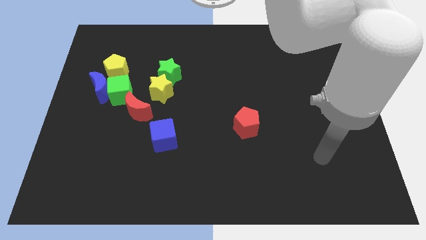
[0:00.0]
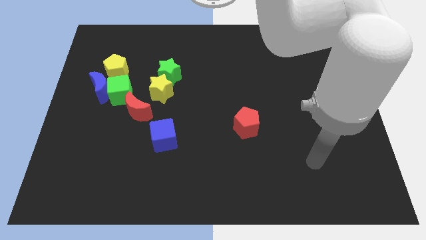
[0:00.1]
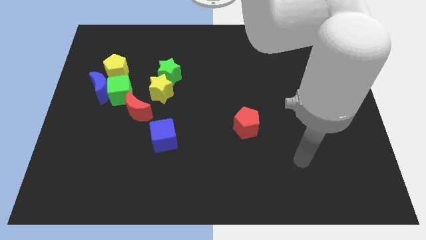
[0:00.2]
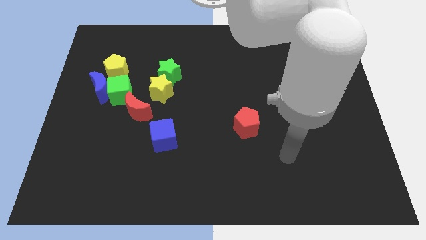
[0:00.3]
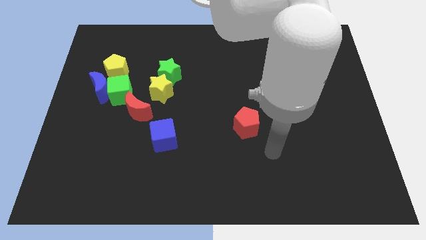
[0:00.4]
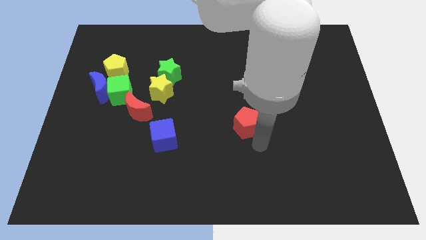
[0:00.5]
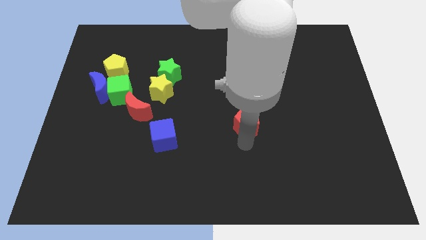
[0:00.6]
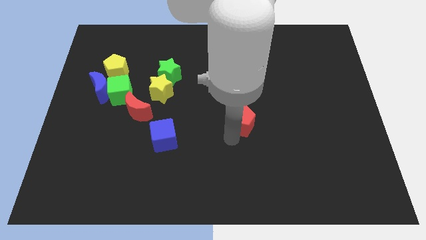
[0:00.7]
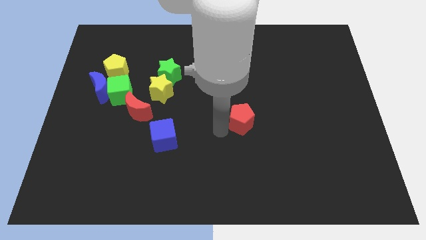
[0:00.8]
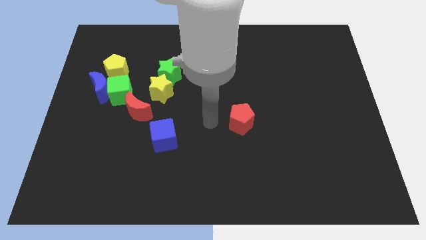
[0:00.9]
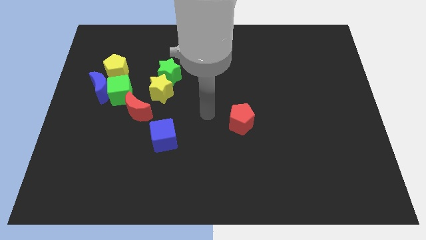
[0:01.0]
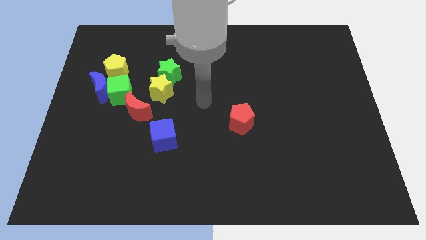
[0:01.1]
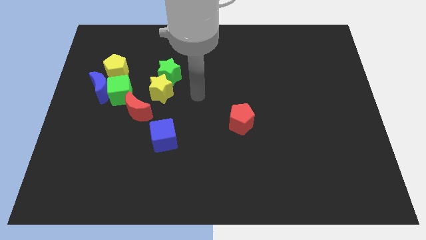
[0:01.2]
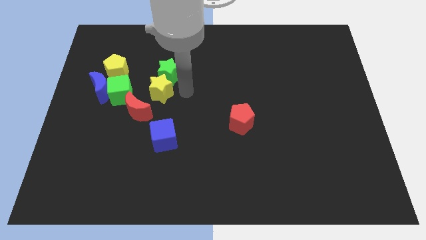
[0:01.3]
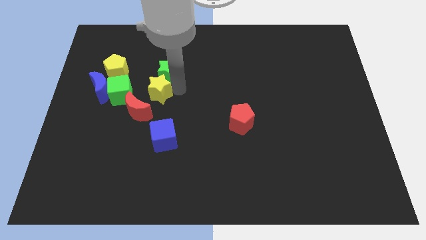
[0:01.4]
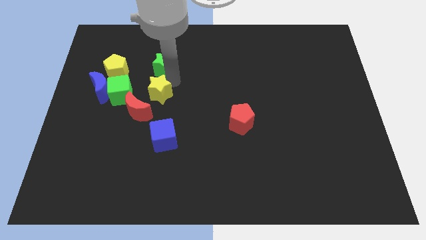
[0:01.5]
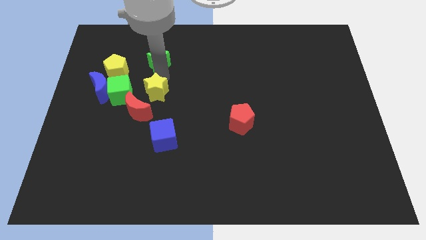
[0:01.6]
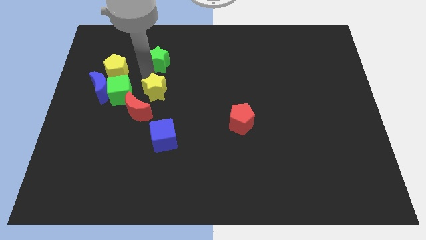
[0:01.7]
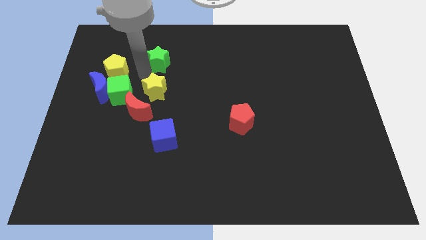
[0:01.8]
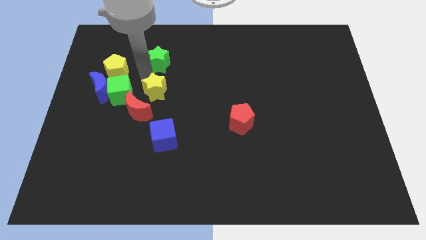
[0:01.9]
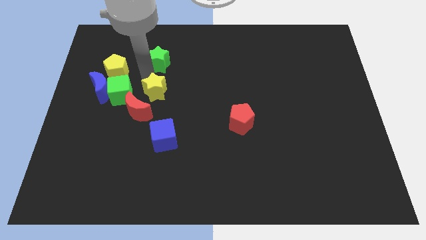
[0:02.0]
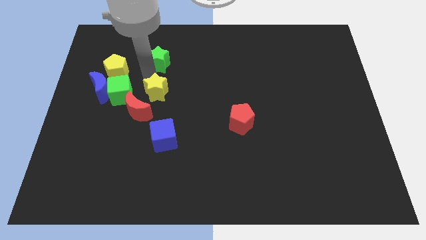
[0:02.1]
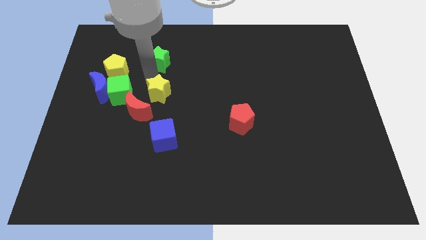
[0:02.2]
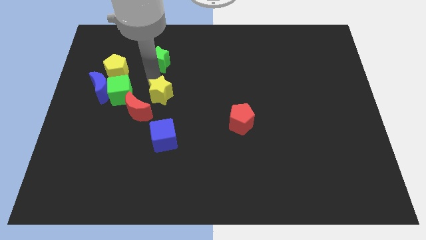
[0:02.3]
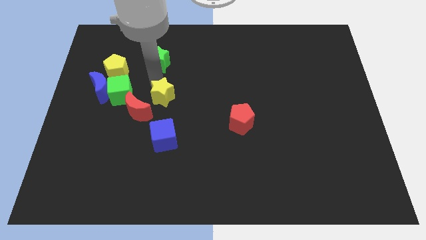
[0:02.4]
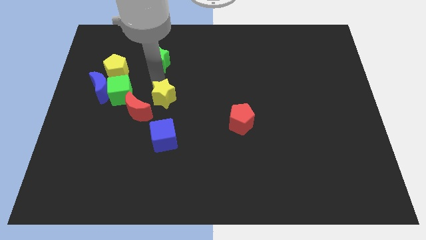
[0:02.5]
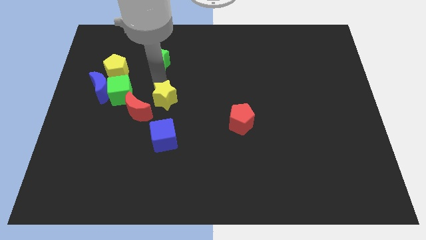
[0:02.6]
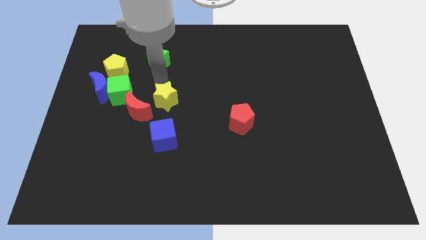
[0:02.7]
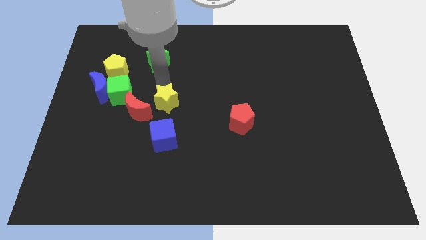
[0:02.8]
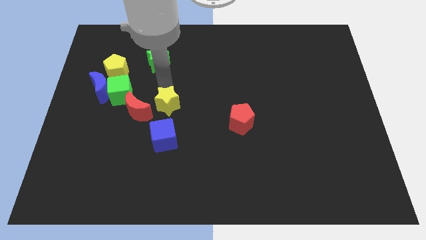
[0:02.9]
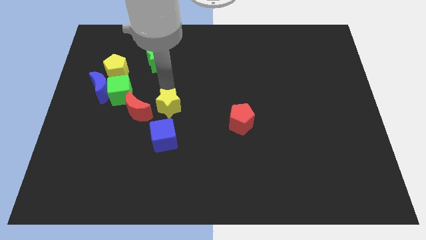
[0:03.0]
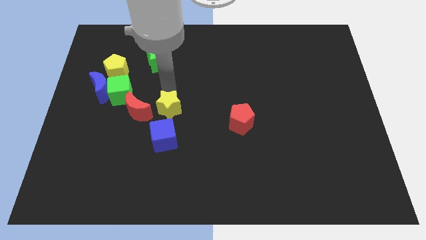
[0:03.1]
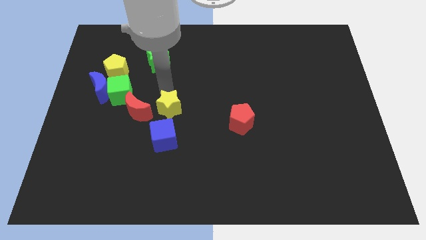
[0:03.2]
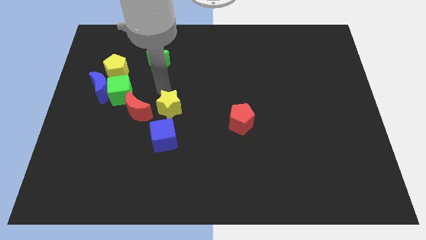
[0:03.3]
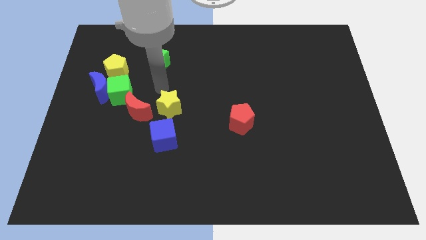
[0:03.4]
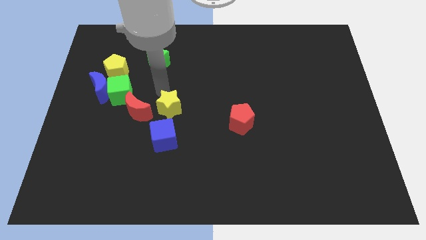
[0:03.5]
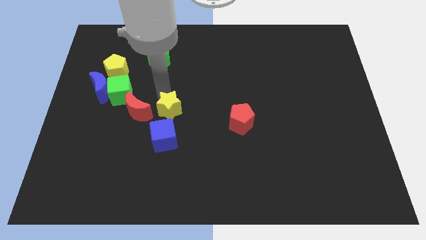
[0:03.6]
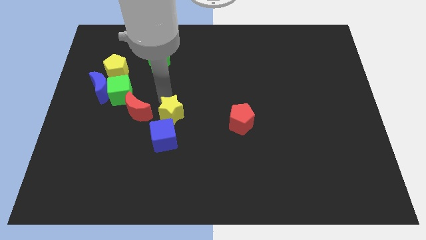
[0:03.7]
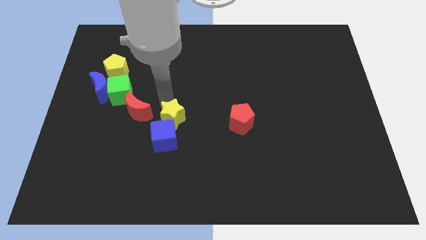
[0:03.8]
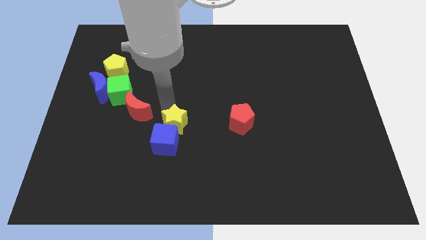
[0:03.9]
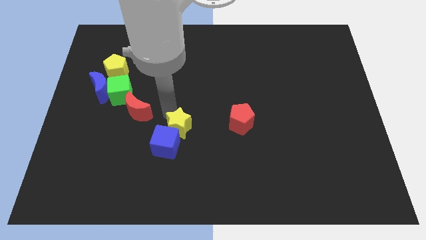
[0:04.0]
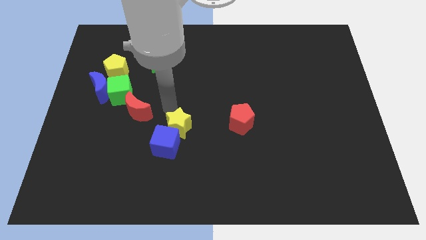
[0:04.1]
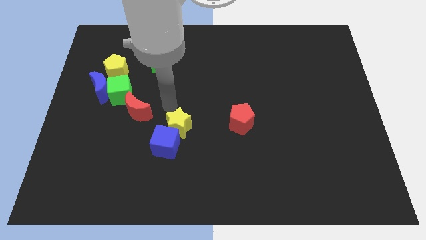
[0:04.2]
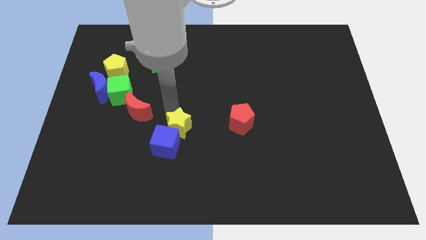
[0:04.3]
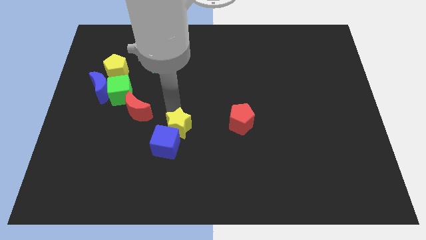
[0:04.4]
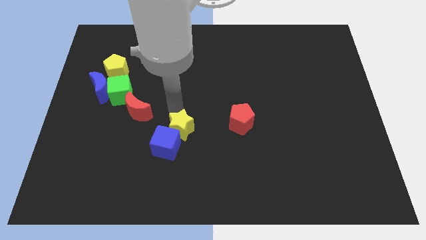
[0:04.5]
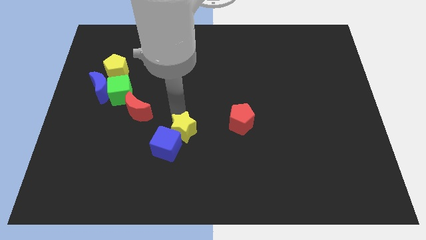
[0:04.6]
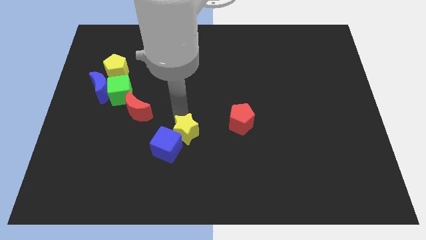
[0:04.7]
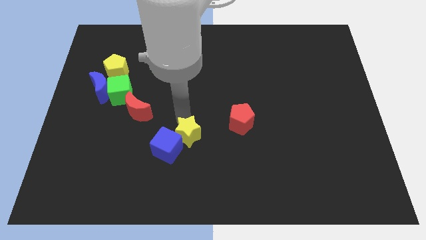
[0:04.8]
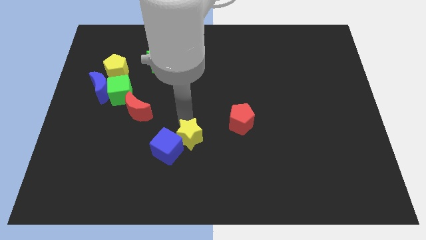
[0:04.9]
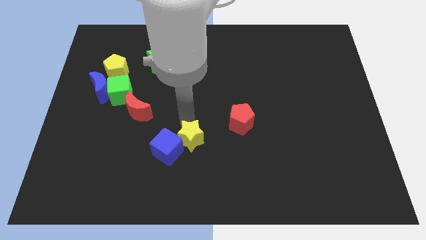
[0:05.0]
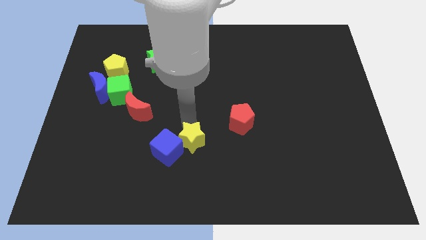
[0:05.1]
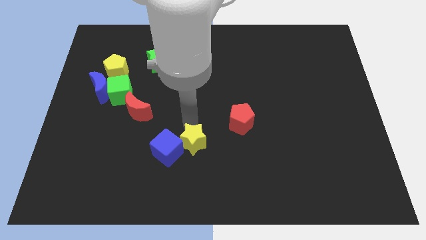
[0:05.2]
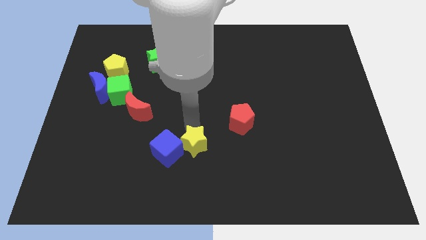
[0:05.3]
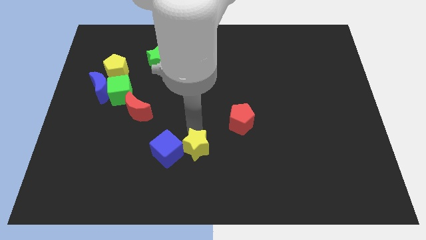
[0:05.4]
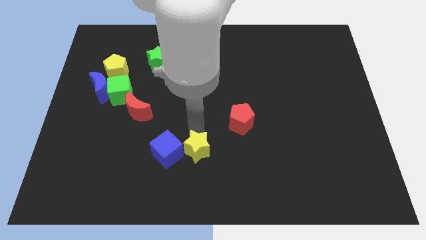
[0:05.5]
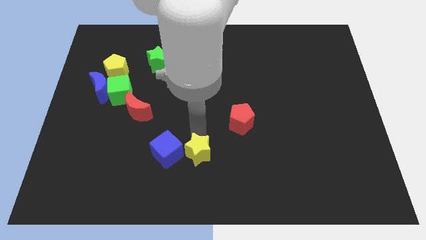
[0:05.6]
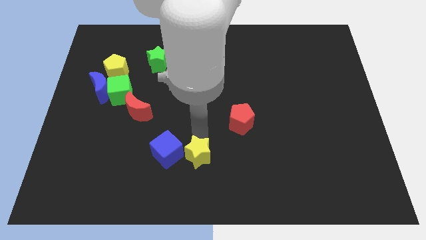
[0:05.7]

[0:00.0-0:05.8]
put the yellow star to the bottom side
